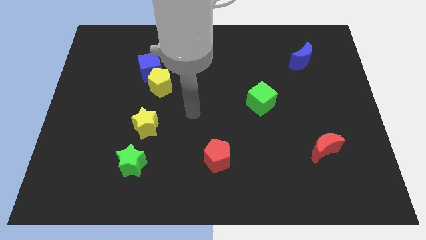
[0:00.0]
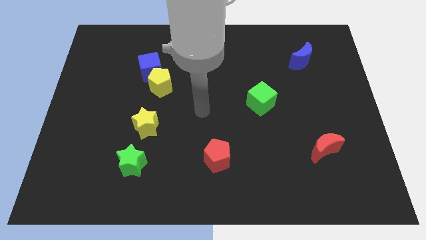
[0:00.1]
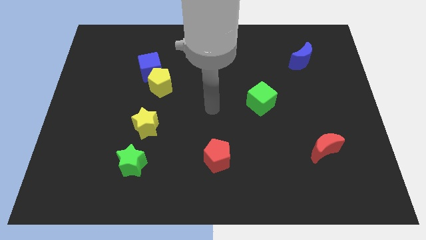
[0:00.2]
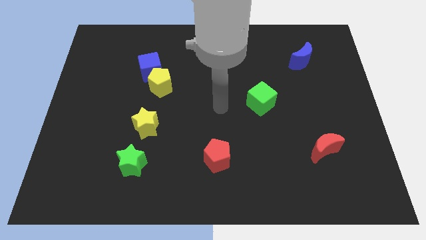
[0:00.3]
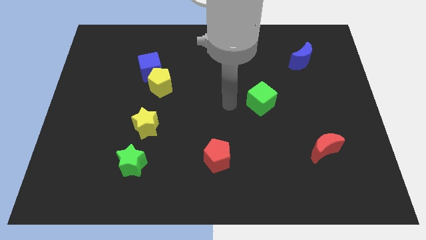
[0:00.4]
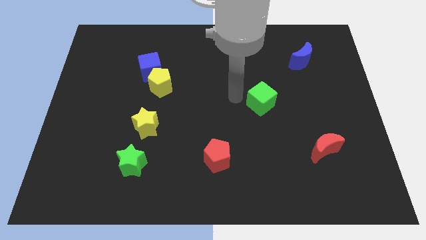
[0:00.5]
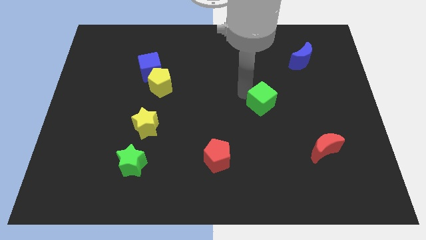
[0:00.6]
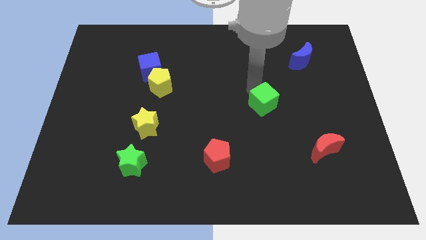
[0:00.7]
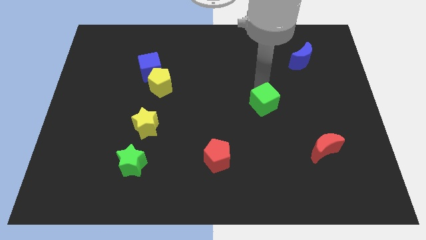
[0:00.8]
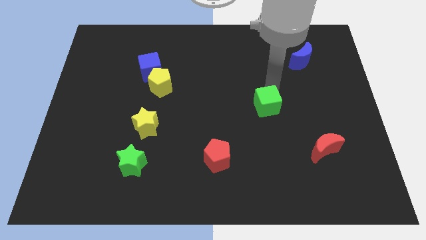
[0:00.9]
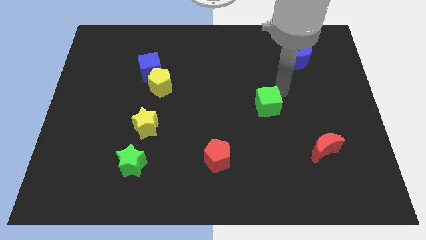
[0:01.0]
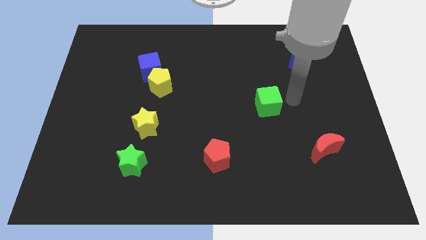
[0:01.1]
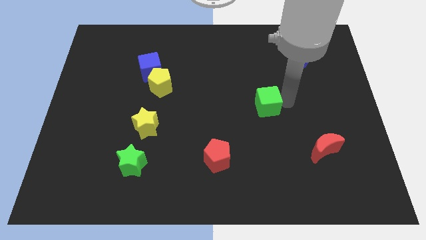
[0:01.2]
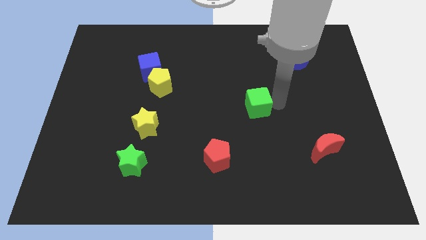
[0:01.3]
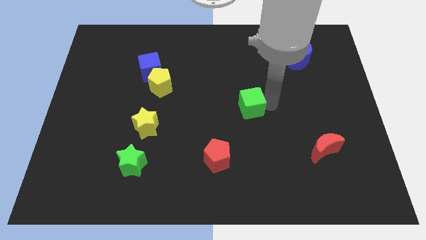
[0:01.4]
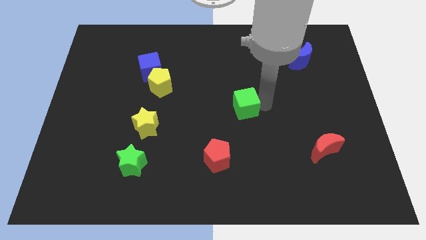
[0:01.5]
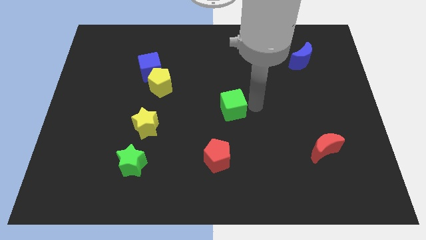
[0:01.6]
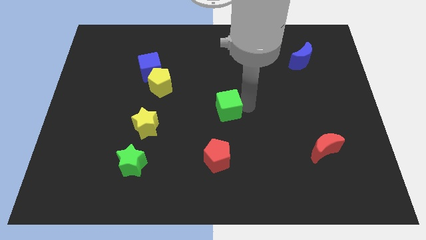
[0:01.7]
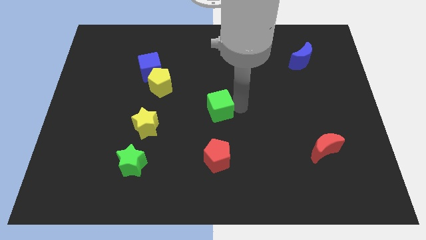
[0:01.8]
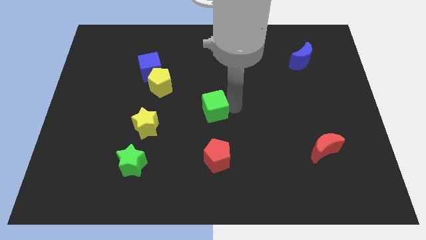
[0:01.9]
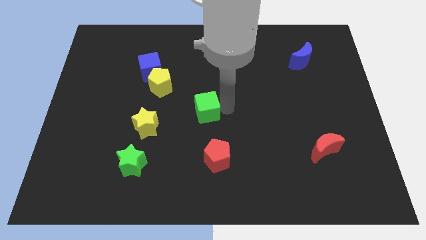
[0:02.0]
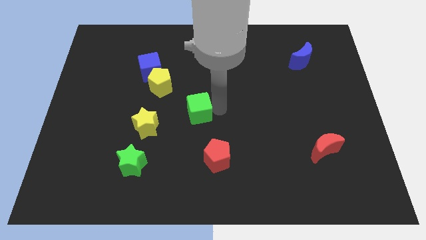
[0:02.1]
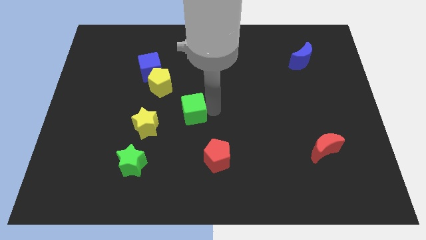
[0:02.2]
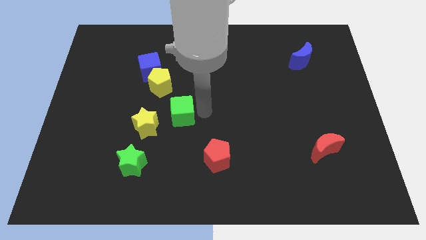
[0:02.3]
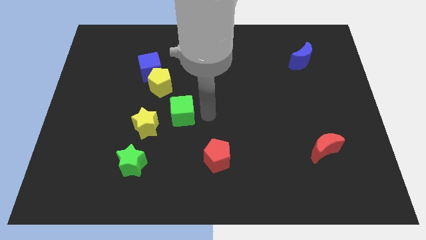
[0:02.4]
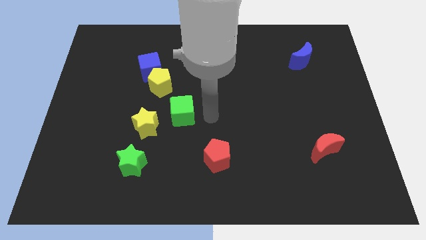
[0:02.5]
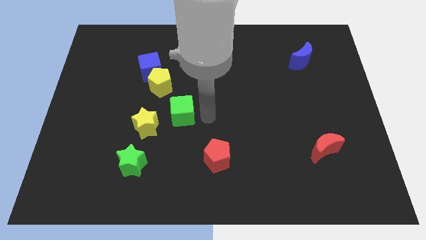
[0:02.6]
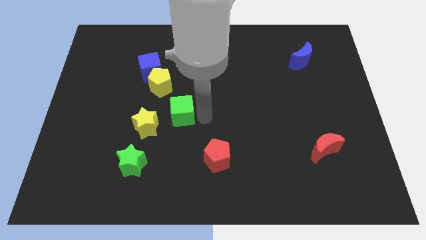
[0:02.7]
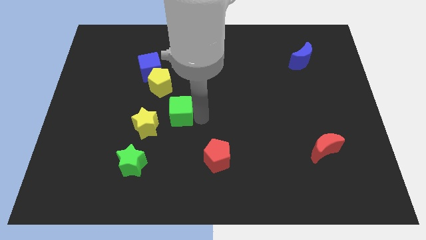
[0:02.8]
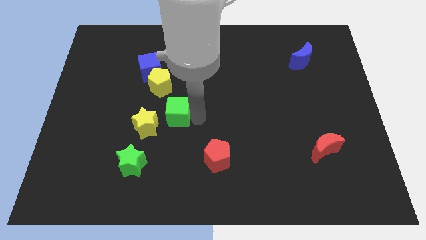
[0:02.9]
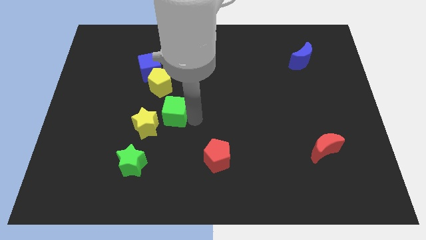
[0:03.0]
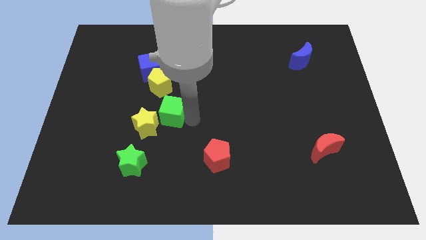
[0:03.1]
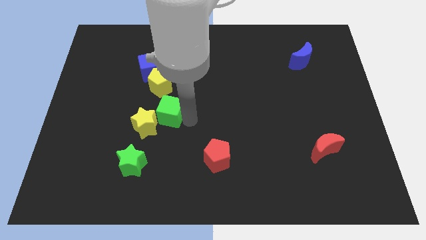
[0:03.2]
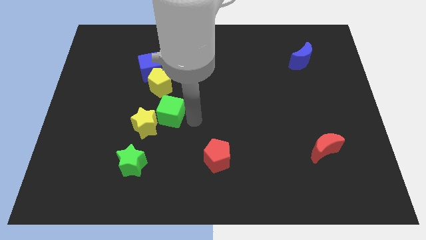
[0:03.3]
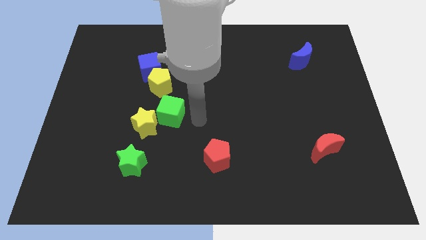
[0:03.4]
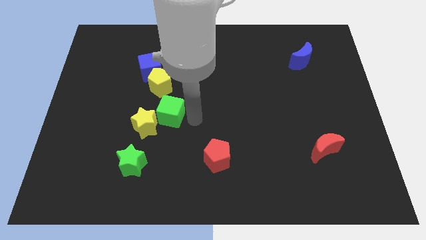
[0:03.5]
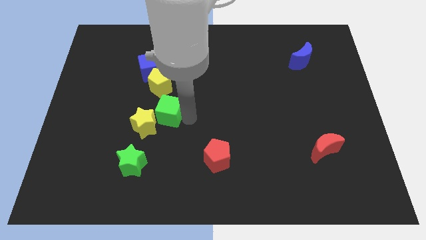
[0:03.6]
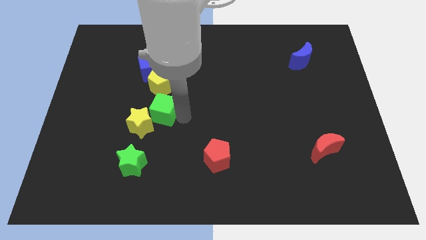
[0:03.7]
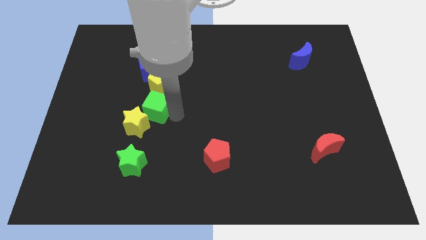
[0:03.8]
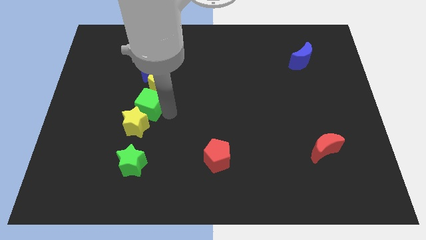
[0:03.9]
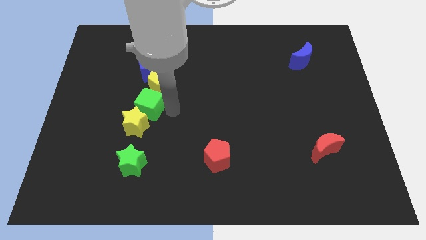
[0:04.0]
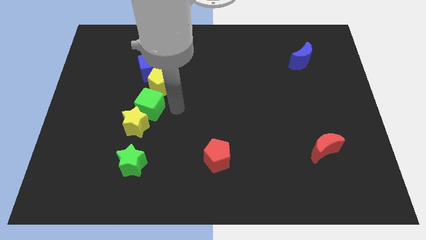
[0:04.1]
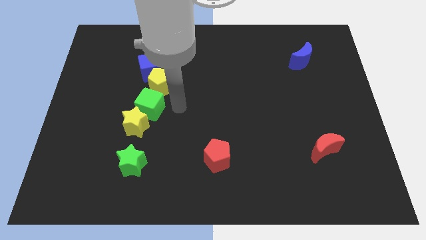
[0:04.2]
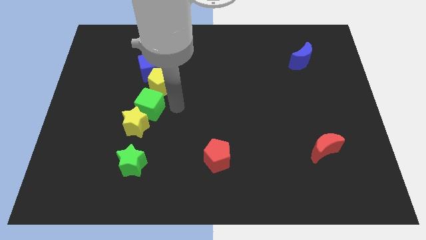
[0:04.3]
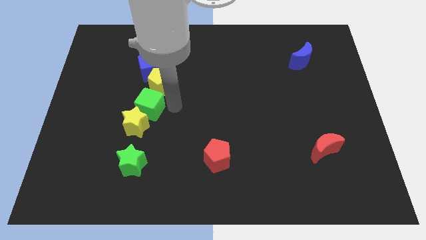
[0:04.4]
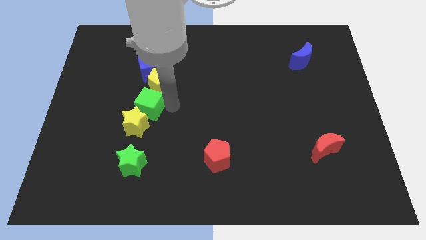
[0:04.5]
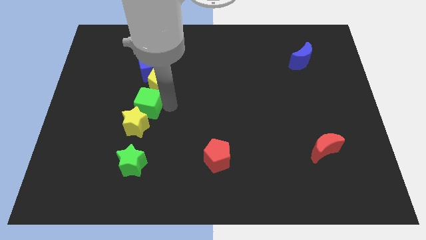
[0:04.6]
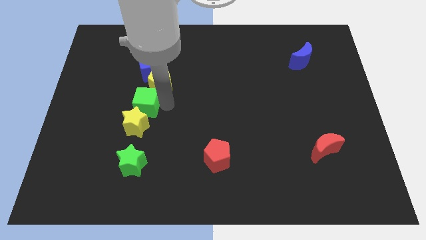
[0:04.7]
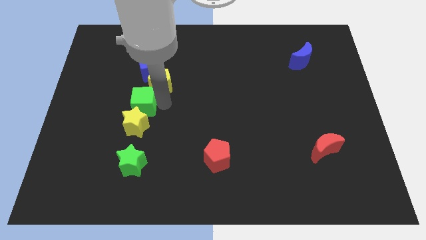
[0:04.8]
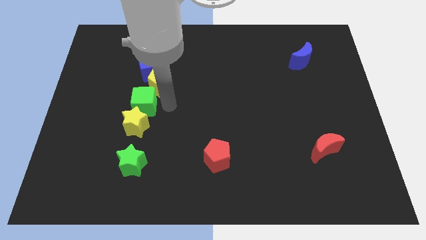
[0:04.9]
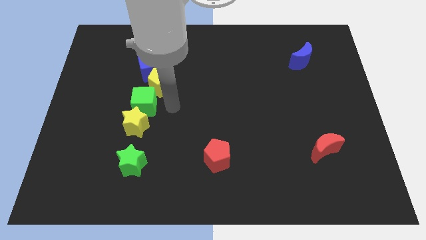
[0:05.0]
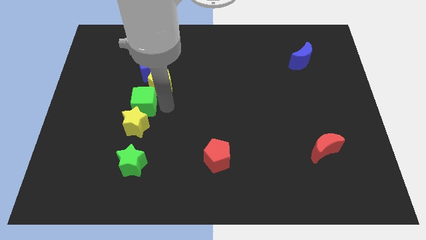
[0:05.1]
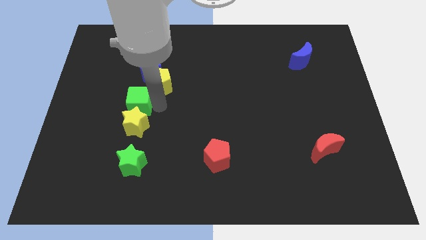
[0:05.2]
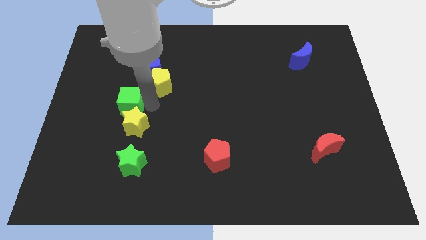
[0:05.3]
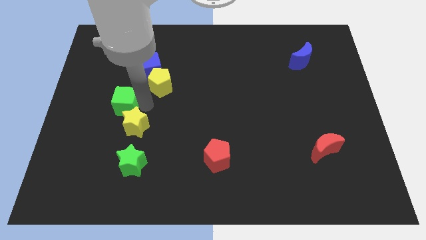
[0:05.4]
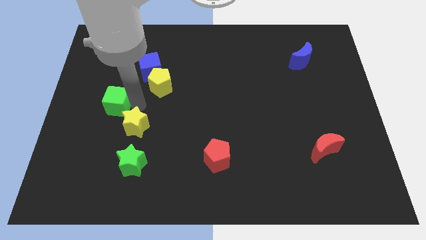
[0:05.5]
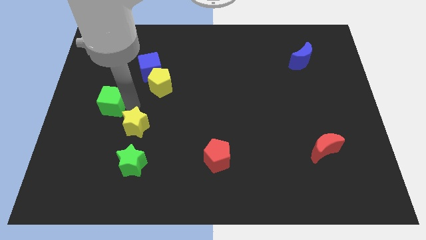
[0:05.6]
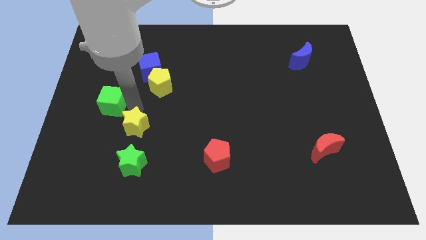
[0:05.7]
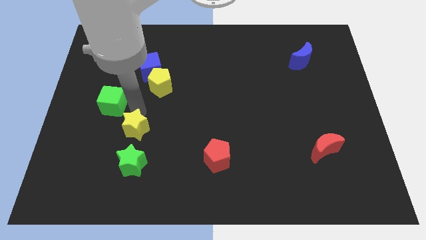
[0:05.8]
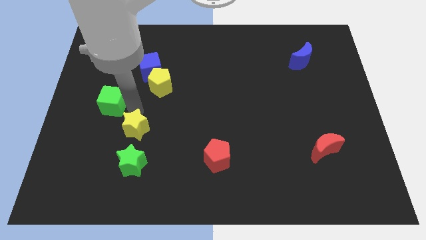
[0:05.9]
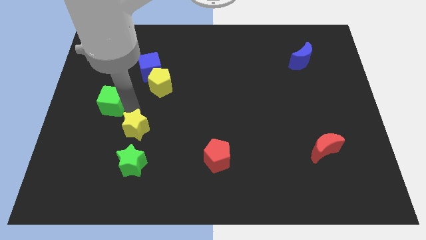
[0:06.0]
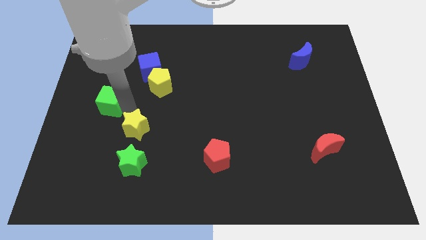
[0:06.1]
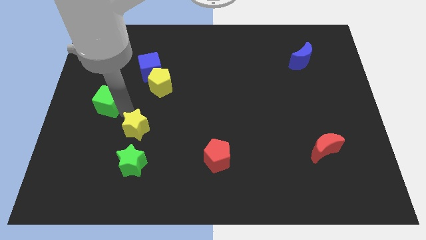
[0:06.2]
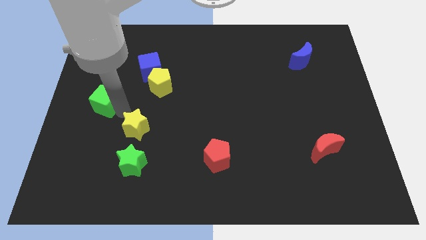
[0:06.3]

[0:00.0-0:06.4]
push the green cube to the left side of the board
